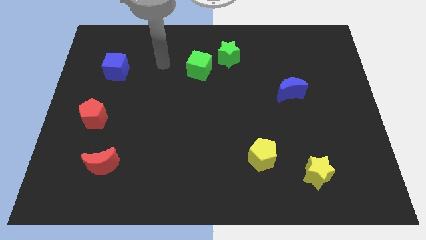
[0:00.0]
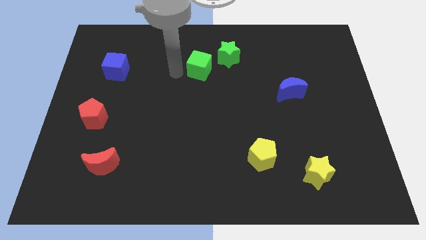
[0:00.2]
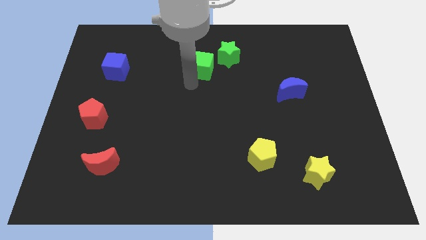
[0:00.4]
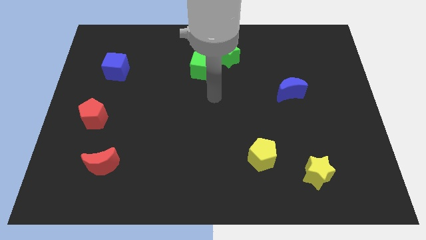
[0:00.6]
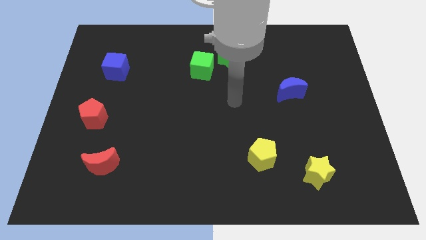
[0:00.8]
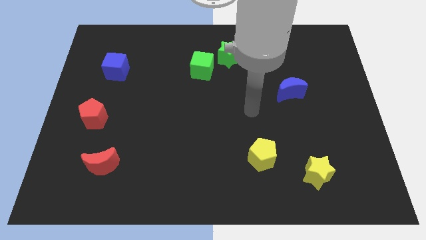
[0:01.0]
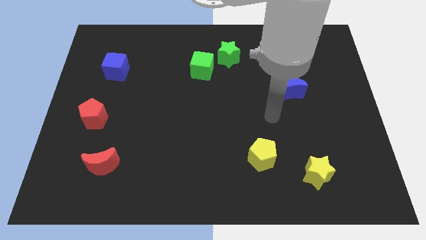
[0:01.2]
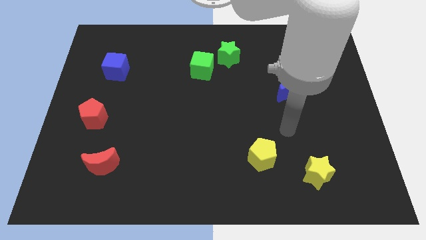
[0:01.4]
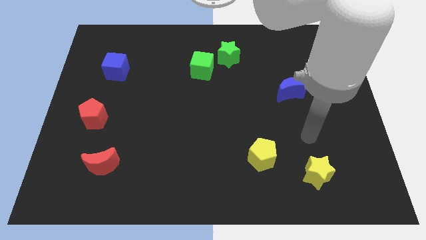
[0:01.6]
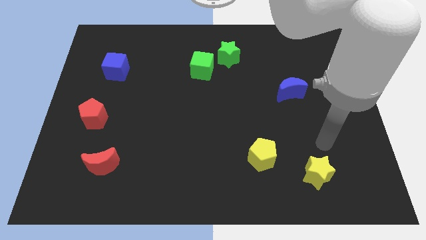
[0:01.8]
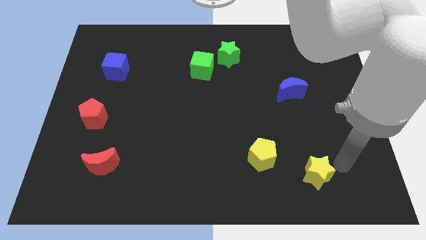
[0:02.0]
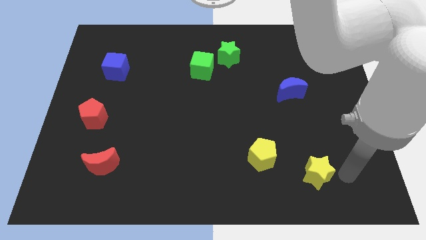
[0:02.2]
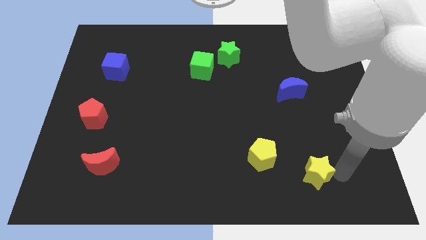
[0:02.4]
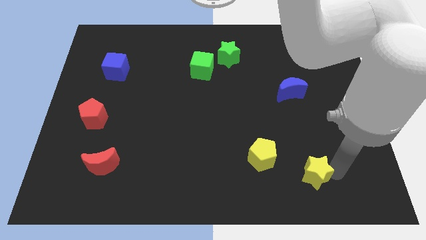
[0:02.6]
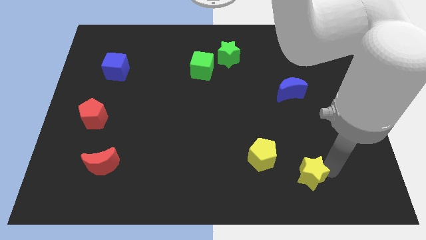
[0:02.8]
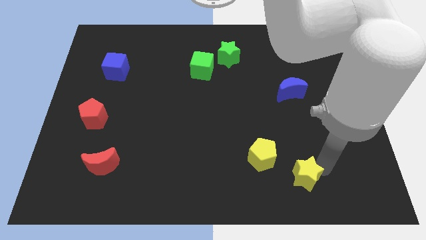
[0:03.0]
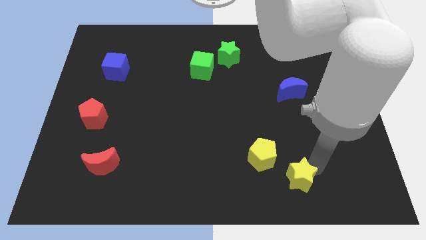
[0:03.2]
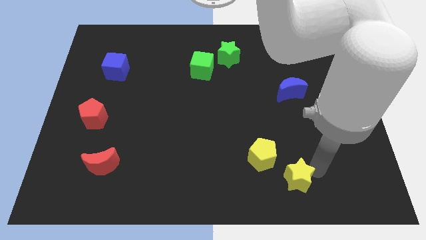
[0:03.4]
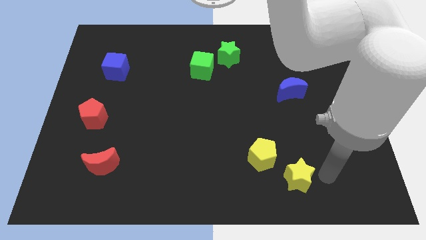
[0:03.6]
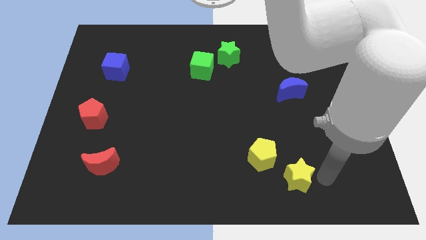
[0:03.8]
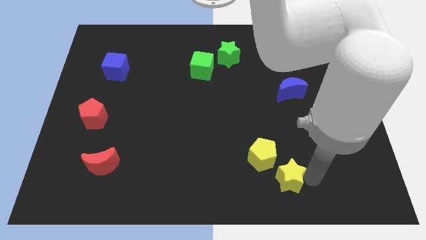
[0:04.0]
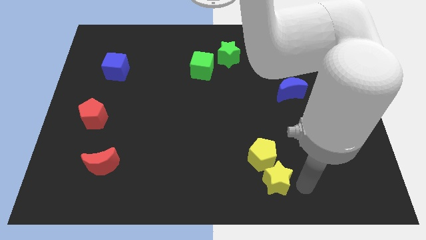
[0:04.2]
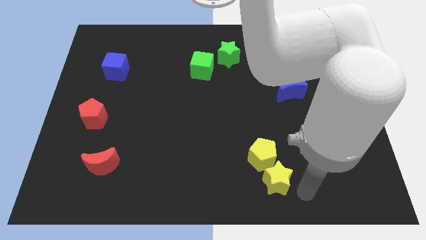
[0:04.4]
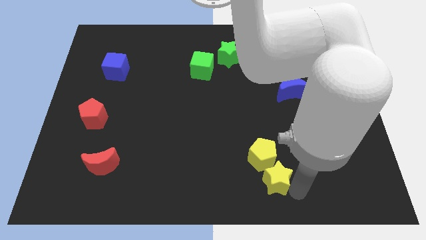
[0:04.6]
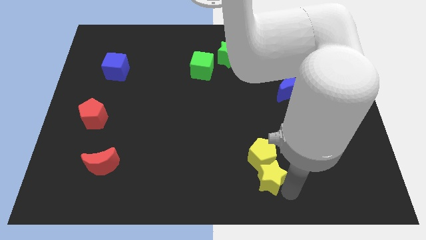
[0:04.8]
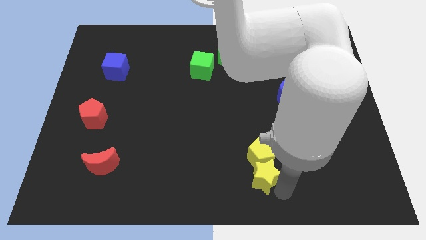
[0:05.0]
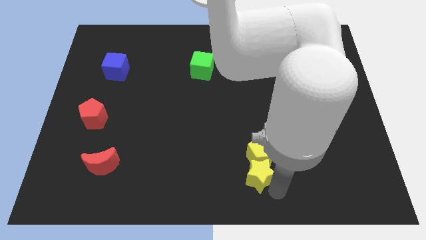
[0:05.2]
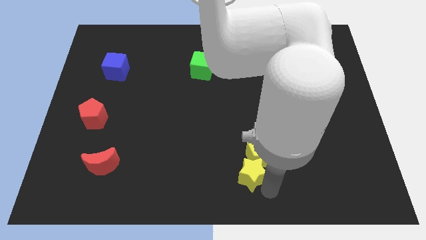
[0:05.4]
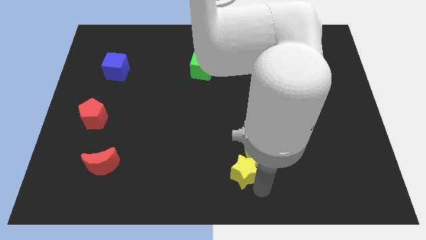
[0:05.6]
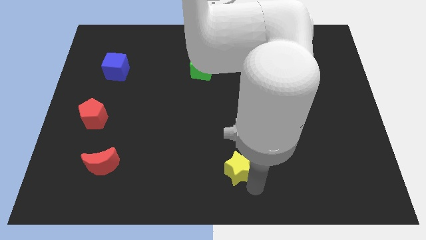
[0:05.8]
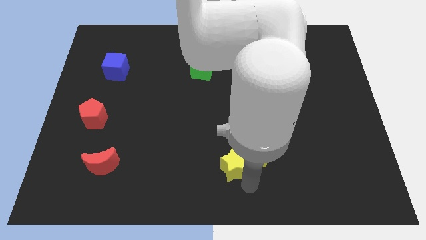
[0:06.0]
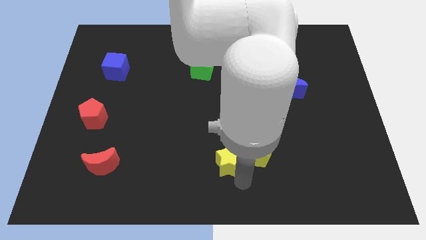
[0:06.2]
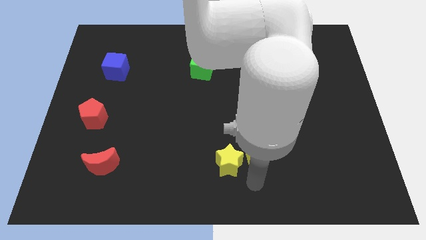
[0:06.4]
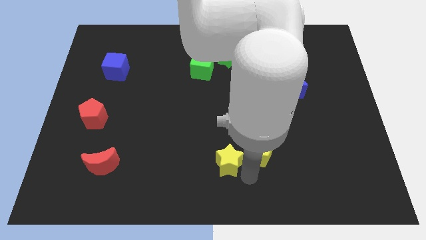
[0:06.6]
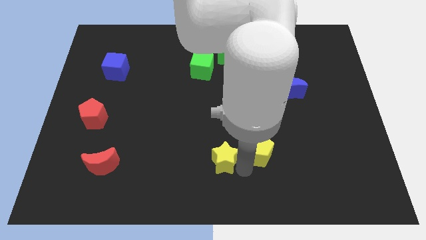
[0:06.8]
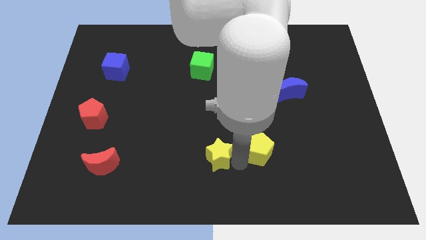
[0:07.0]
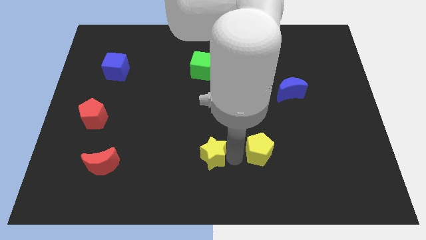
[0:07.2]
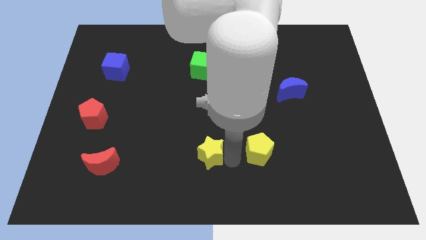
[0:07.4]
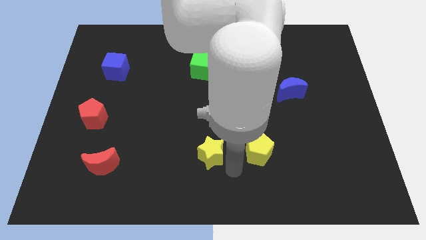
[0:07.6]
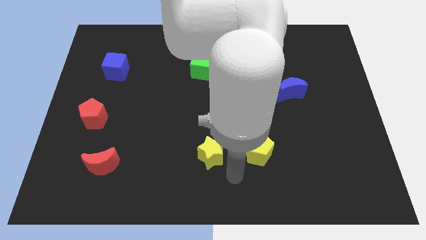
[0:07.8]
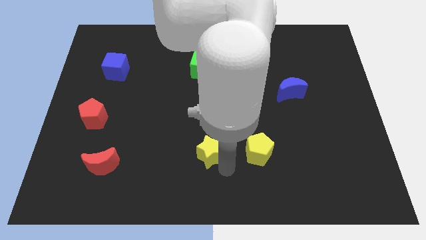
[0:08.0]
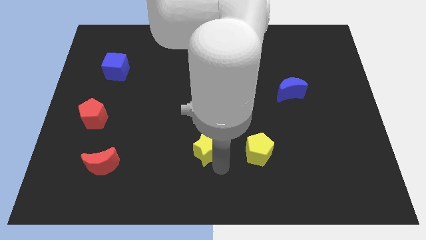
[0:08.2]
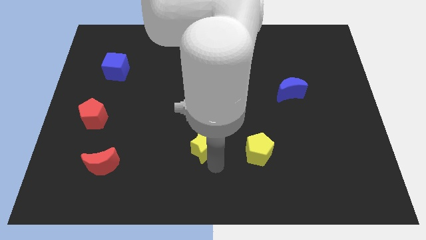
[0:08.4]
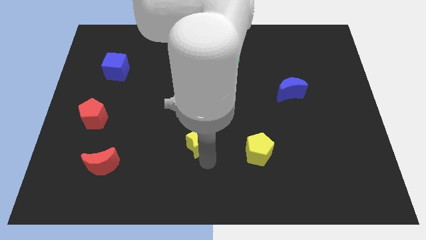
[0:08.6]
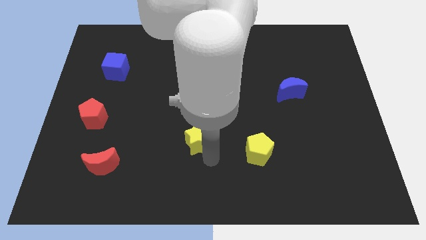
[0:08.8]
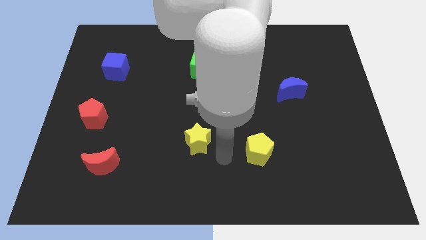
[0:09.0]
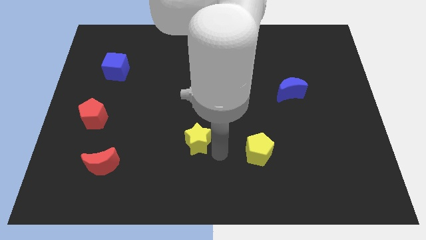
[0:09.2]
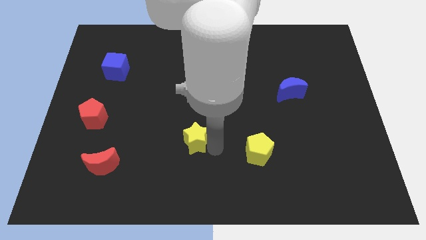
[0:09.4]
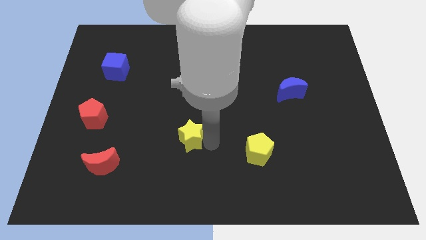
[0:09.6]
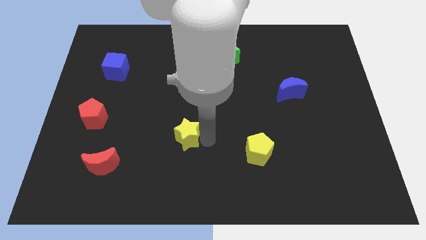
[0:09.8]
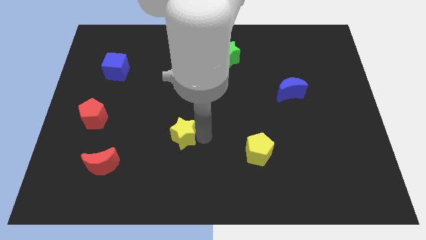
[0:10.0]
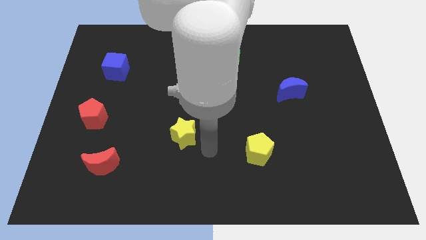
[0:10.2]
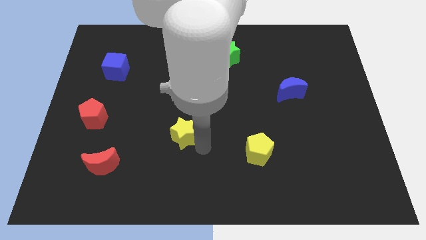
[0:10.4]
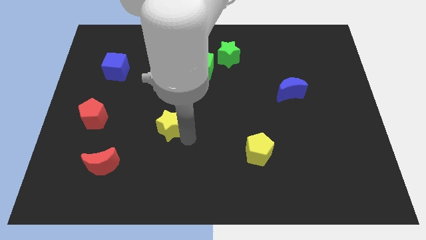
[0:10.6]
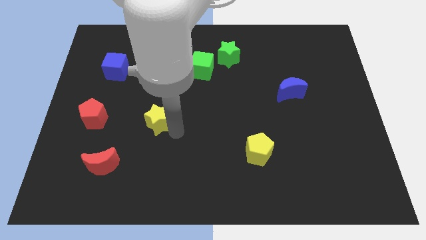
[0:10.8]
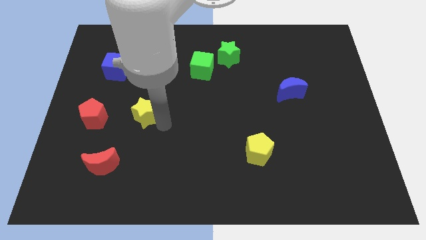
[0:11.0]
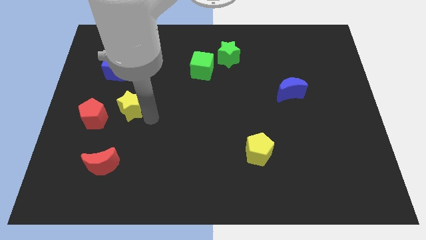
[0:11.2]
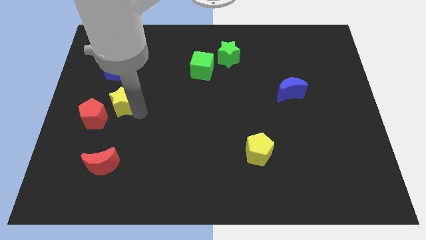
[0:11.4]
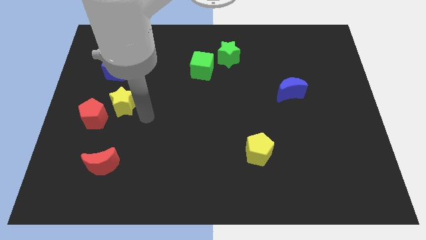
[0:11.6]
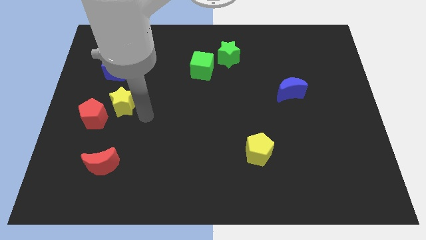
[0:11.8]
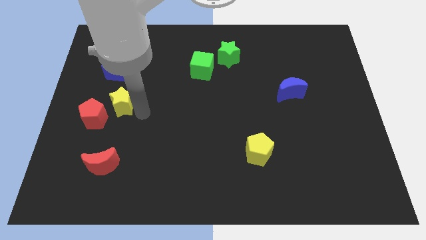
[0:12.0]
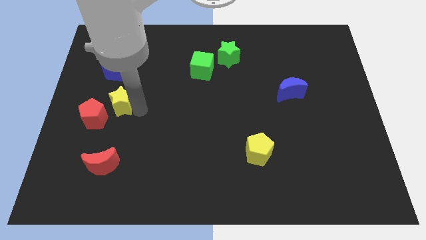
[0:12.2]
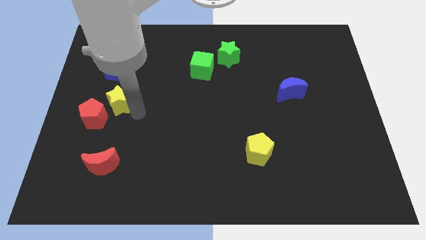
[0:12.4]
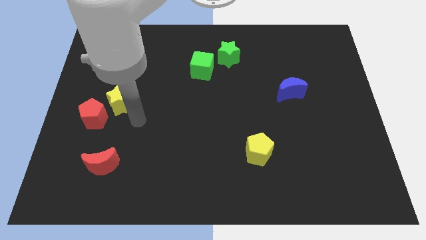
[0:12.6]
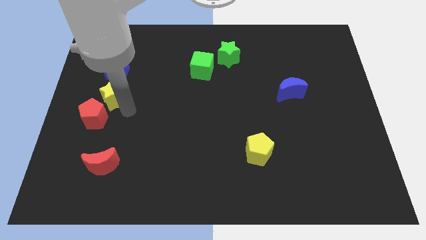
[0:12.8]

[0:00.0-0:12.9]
slide the yellow star above the red pentagon

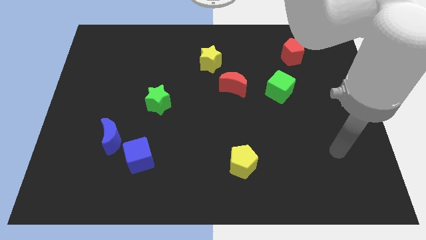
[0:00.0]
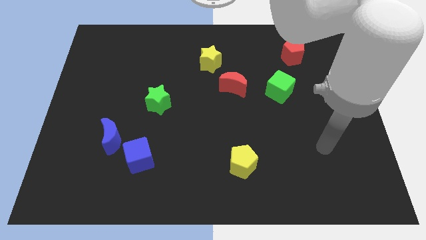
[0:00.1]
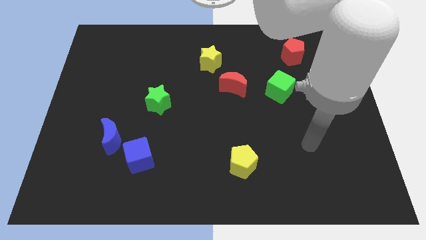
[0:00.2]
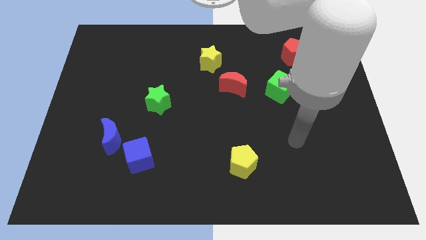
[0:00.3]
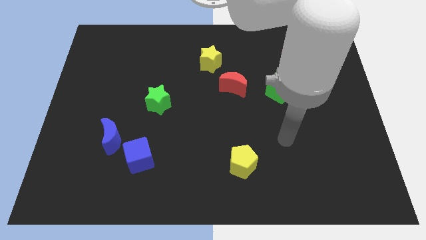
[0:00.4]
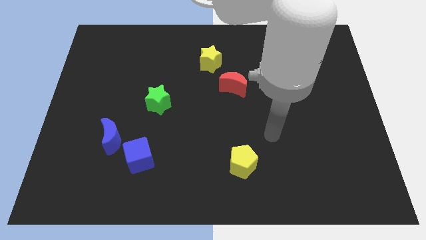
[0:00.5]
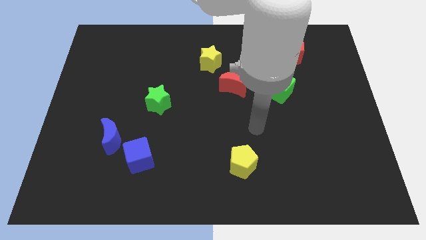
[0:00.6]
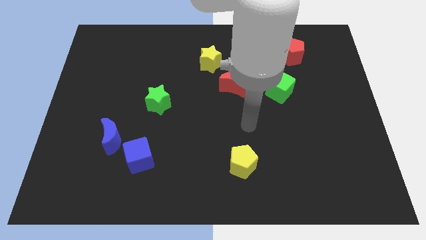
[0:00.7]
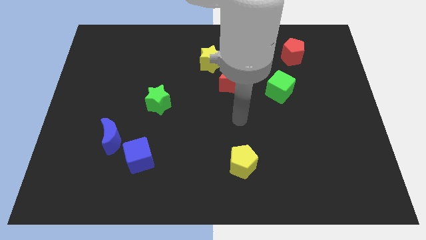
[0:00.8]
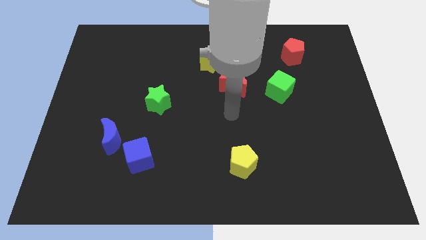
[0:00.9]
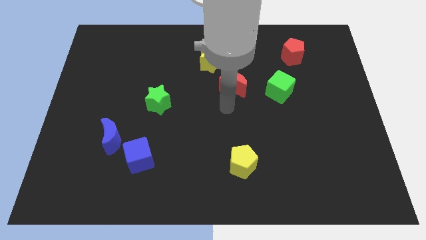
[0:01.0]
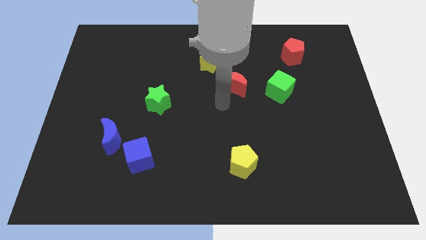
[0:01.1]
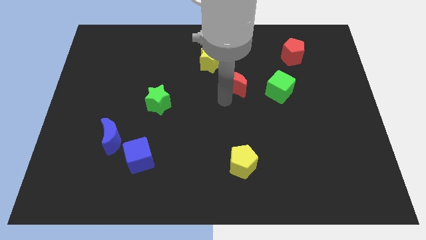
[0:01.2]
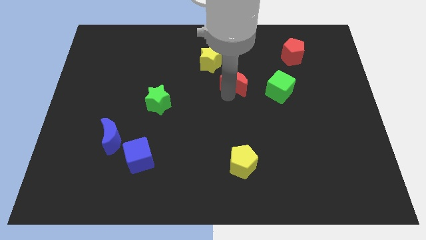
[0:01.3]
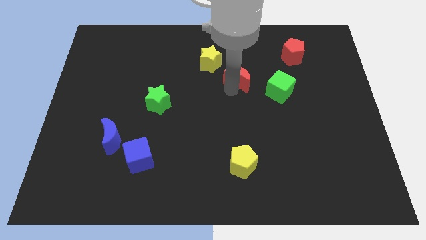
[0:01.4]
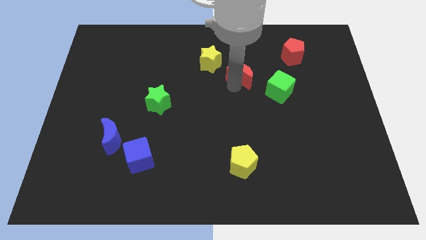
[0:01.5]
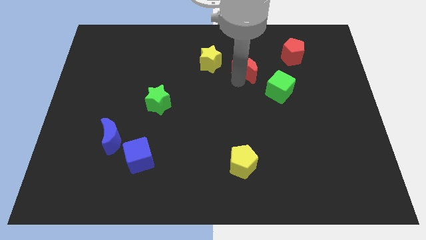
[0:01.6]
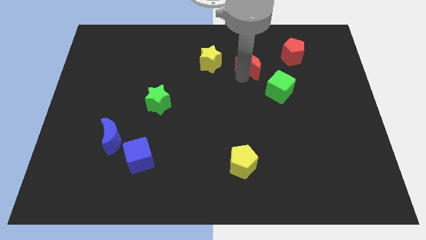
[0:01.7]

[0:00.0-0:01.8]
slide the red moon left of the red pentagon
